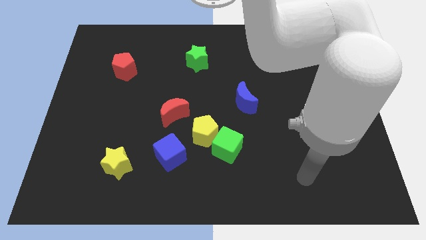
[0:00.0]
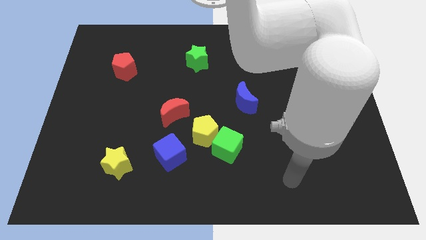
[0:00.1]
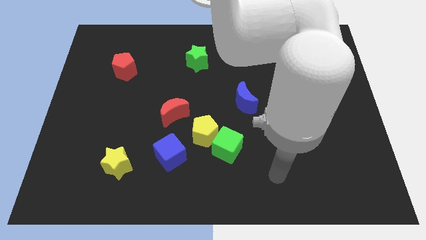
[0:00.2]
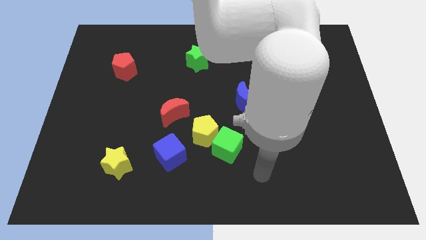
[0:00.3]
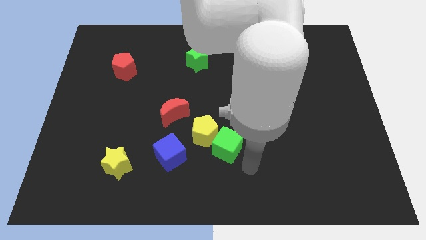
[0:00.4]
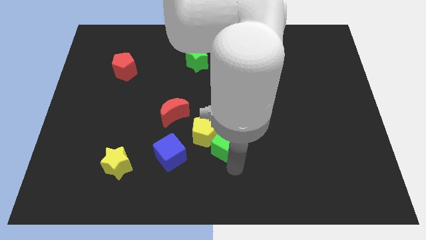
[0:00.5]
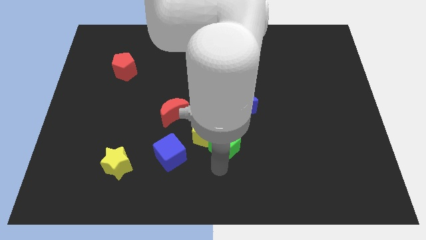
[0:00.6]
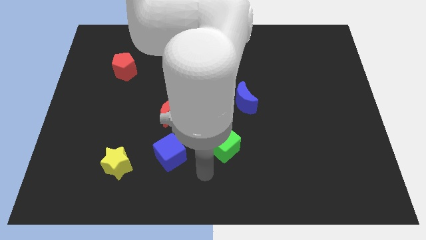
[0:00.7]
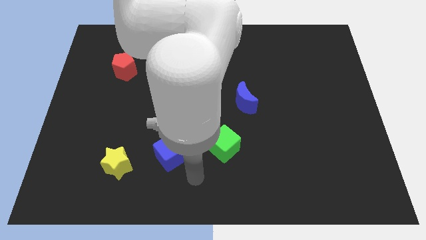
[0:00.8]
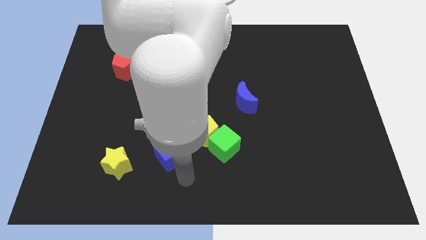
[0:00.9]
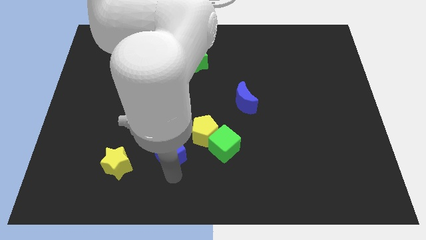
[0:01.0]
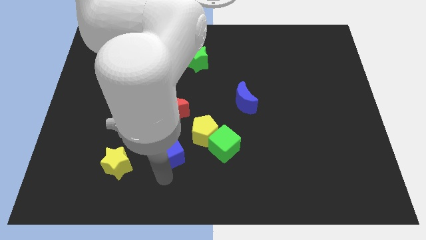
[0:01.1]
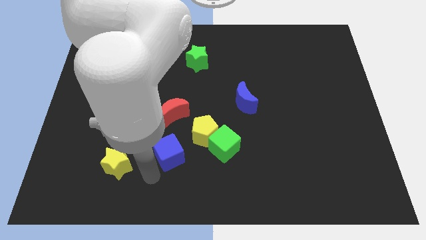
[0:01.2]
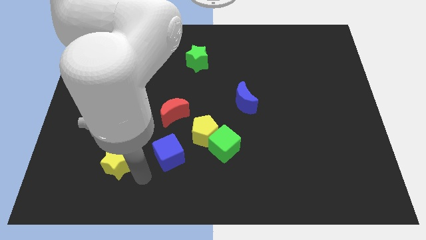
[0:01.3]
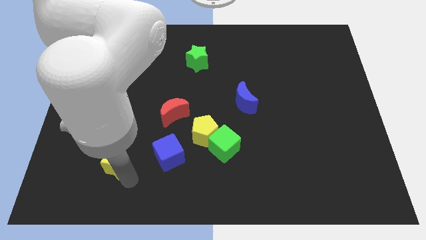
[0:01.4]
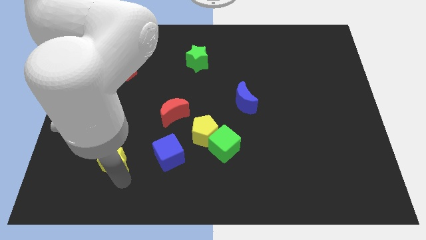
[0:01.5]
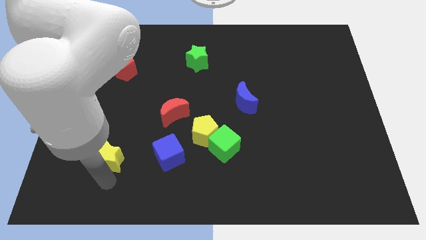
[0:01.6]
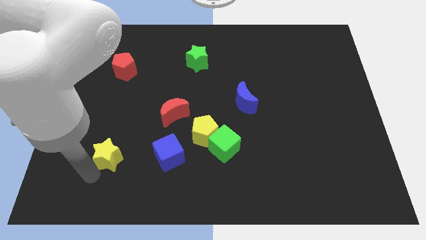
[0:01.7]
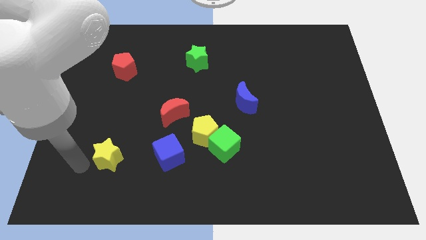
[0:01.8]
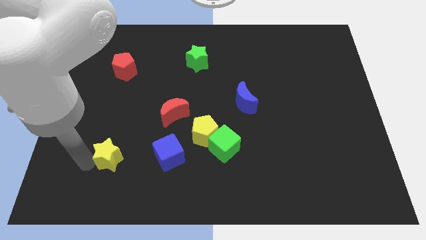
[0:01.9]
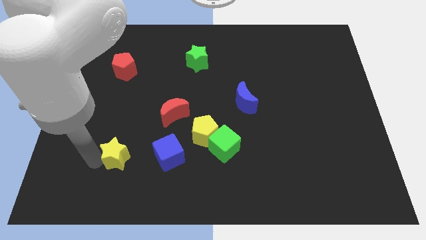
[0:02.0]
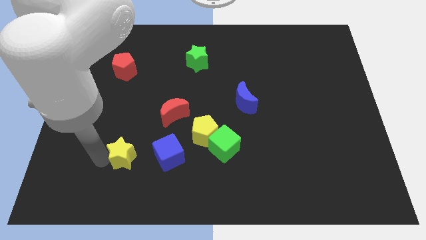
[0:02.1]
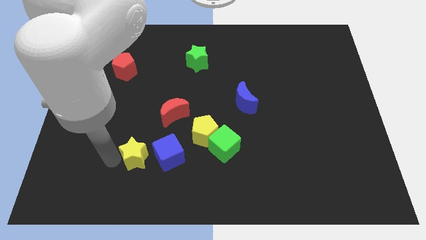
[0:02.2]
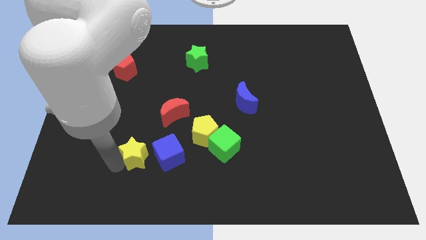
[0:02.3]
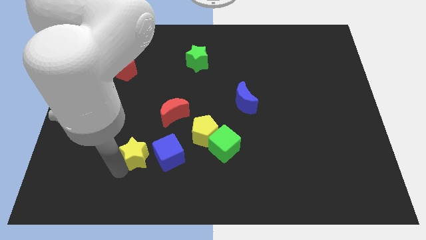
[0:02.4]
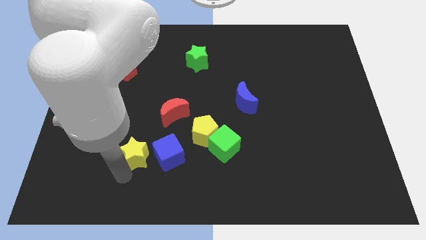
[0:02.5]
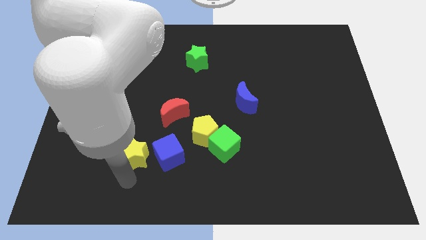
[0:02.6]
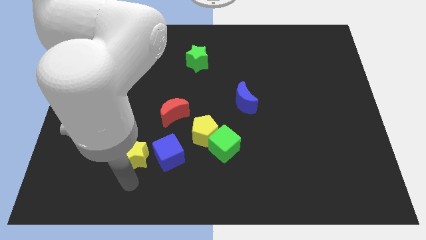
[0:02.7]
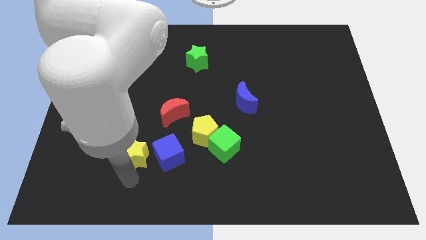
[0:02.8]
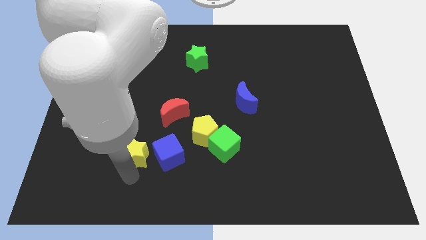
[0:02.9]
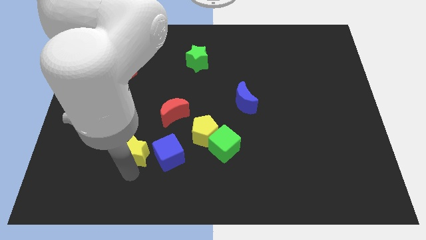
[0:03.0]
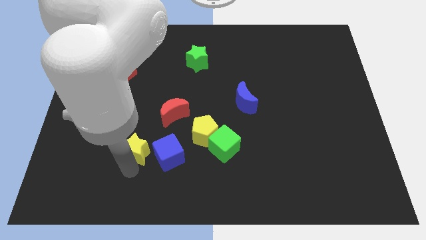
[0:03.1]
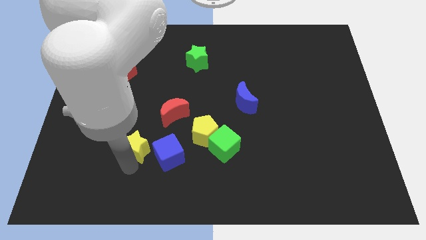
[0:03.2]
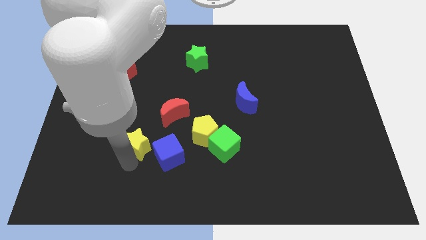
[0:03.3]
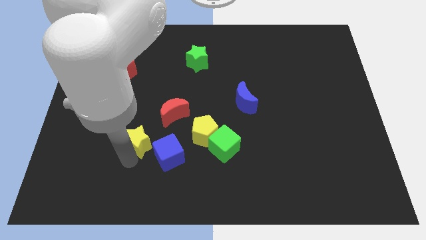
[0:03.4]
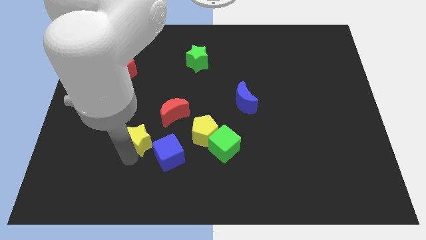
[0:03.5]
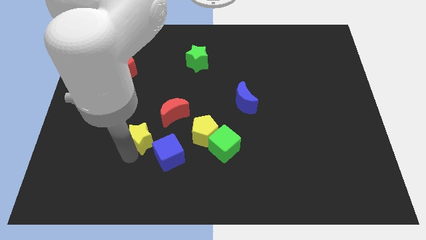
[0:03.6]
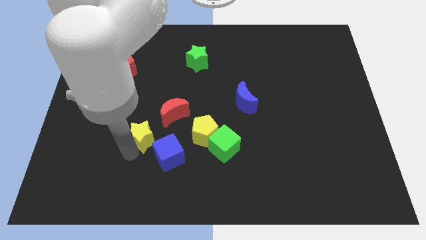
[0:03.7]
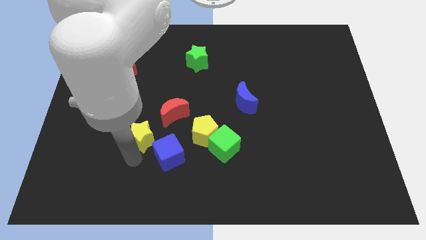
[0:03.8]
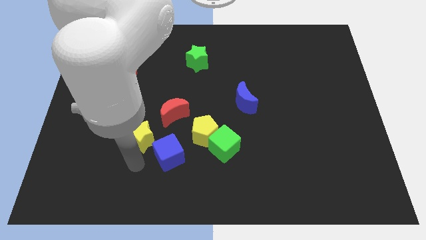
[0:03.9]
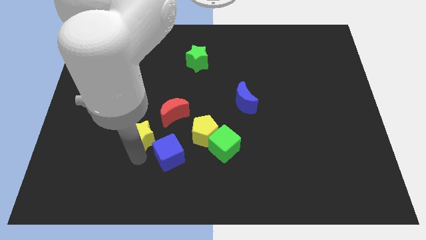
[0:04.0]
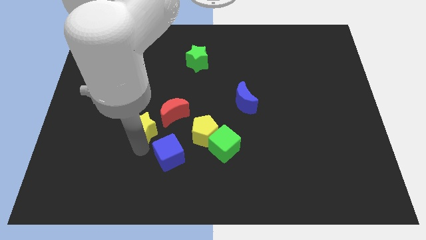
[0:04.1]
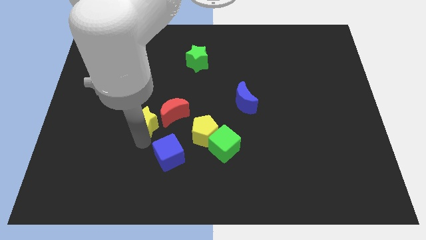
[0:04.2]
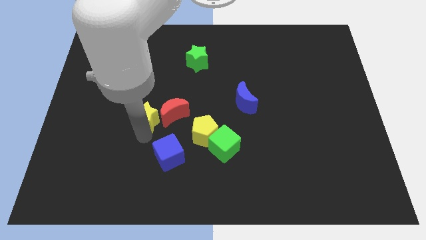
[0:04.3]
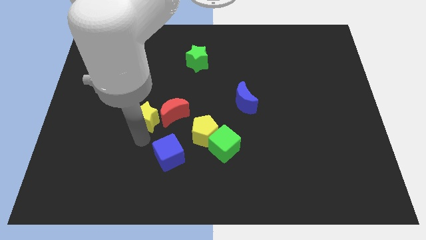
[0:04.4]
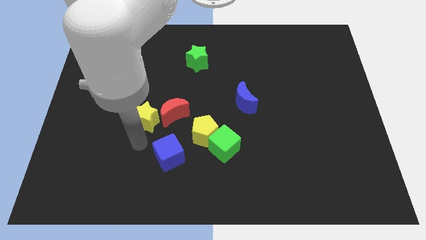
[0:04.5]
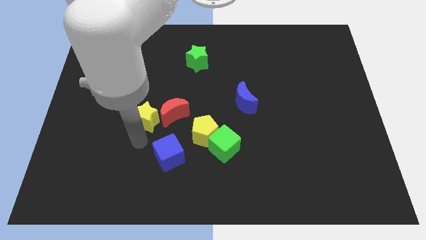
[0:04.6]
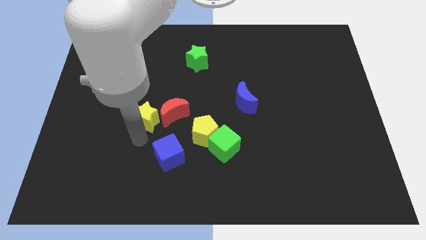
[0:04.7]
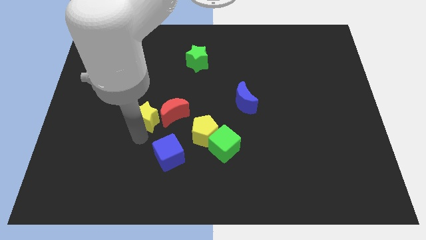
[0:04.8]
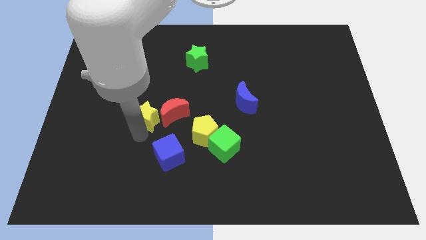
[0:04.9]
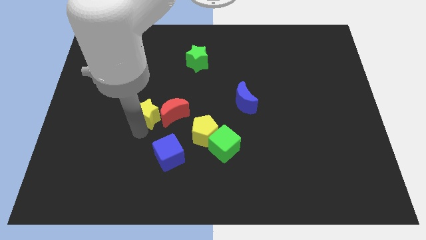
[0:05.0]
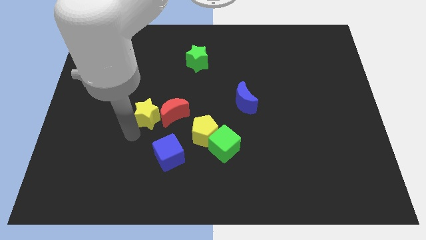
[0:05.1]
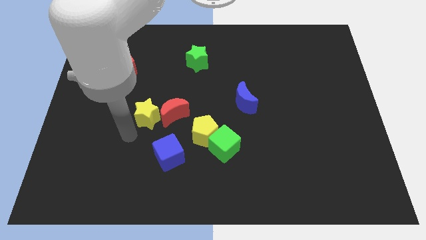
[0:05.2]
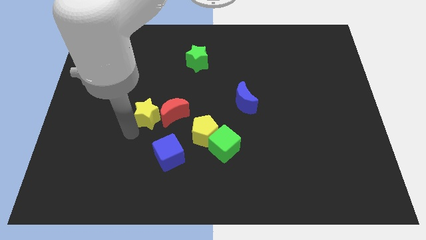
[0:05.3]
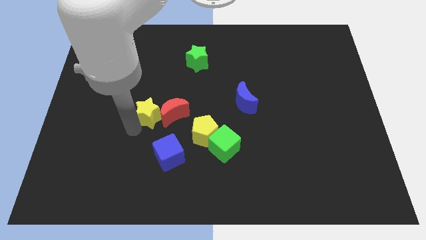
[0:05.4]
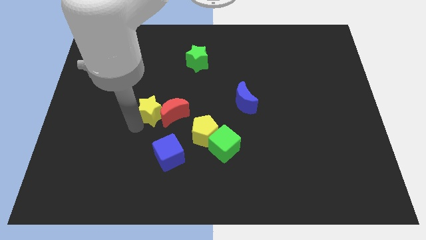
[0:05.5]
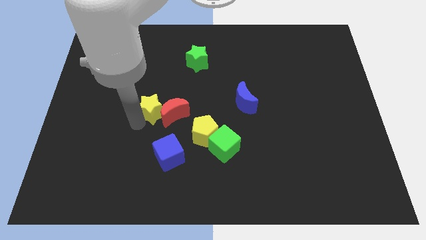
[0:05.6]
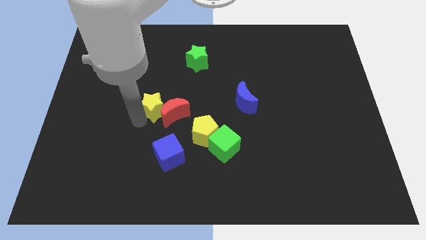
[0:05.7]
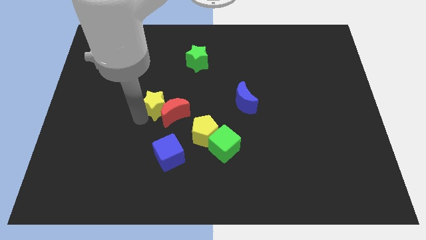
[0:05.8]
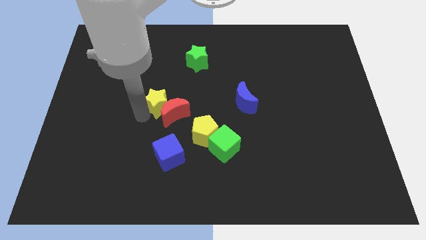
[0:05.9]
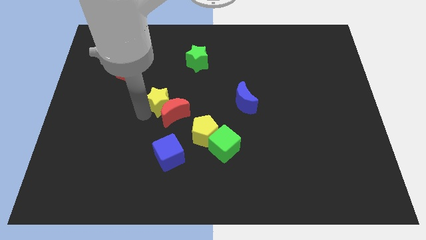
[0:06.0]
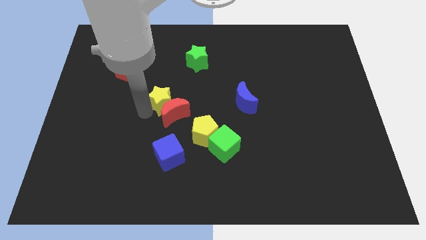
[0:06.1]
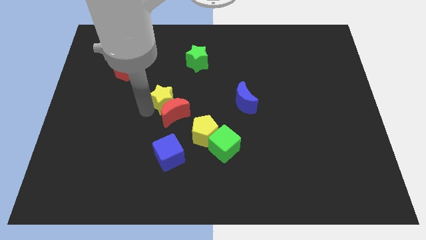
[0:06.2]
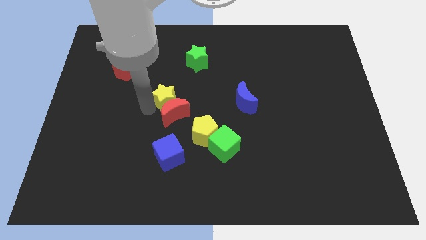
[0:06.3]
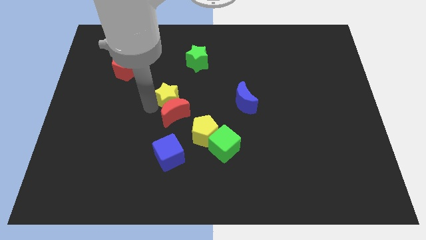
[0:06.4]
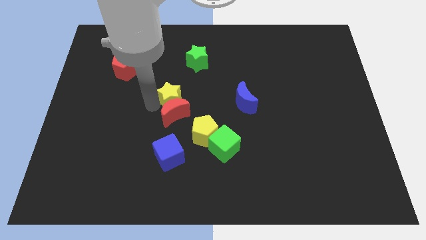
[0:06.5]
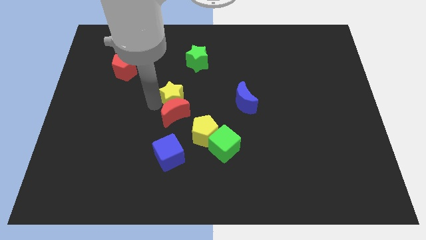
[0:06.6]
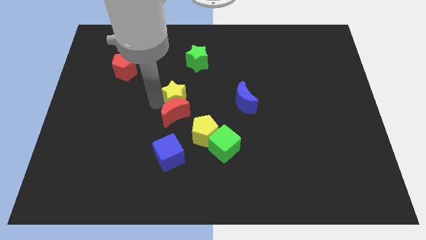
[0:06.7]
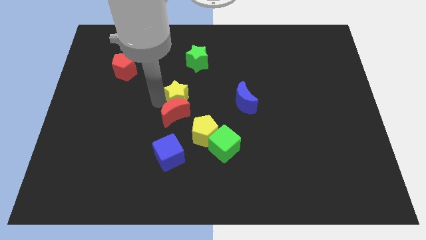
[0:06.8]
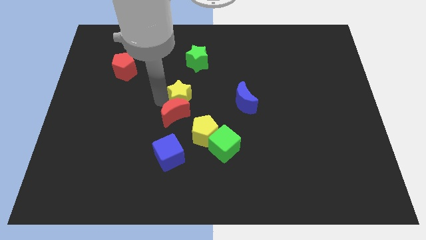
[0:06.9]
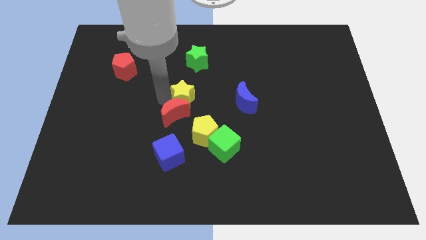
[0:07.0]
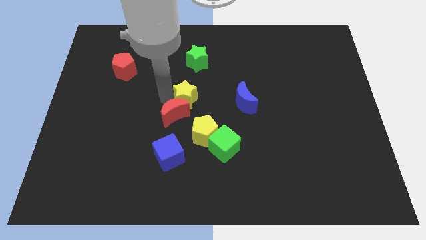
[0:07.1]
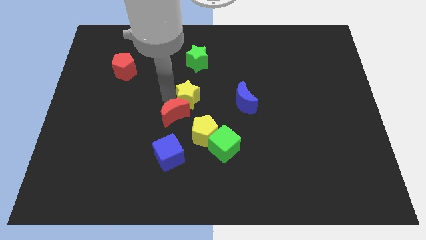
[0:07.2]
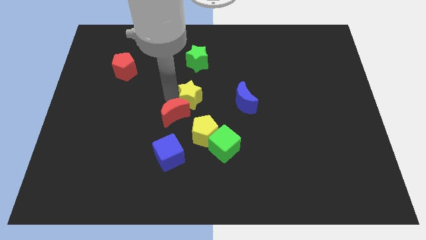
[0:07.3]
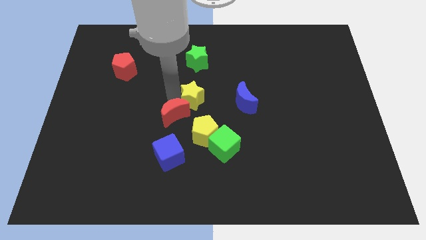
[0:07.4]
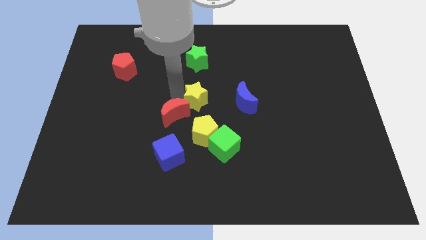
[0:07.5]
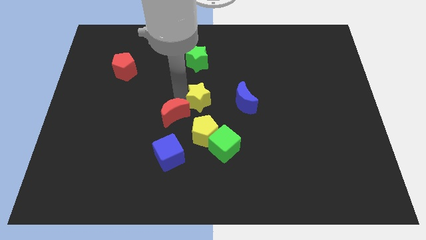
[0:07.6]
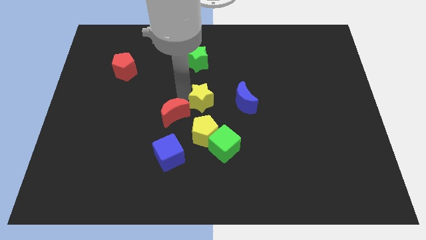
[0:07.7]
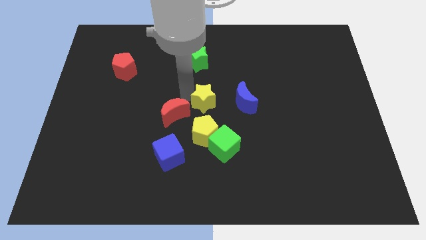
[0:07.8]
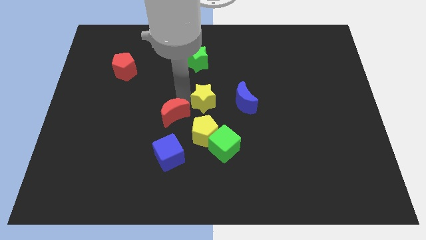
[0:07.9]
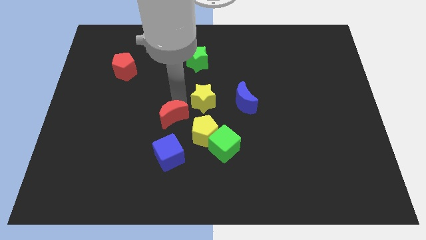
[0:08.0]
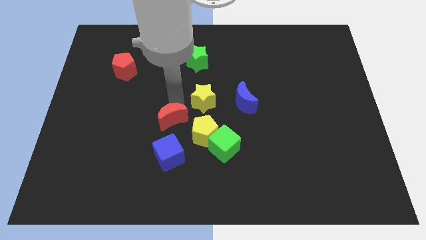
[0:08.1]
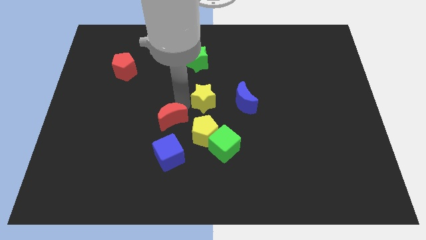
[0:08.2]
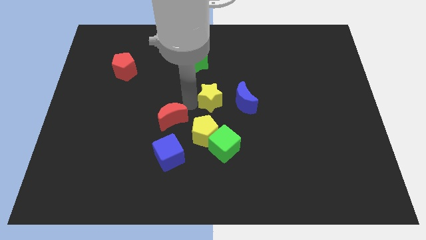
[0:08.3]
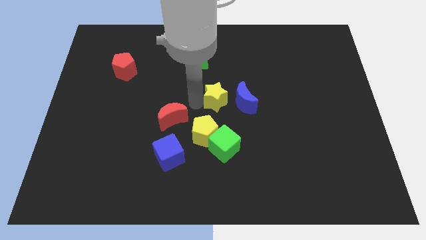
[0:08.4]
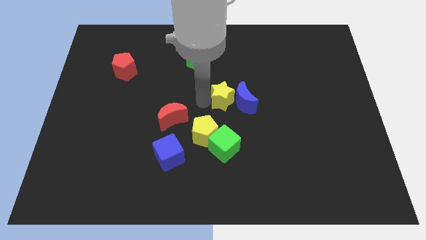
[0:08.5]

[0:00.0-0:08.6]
push the yellow star to the blue moon
